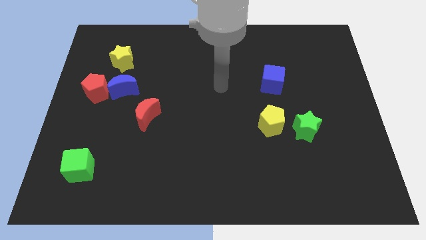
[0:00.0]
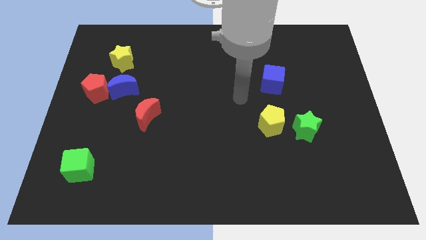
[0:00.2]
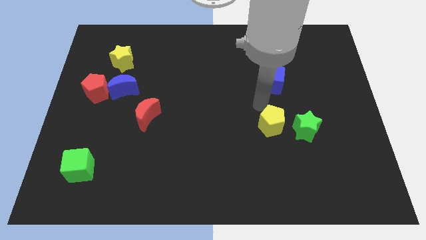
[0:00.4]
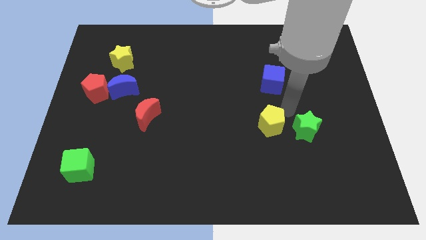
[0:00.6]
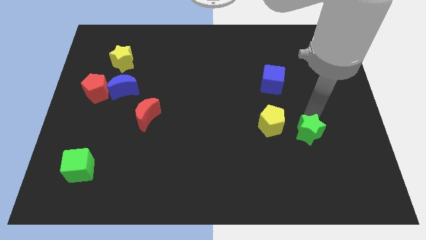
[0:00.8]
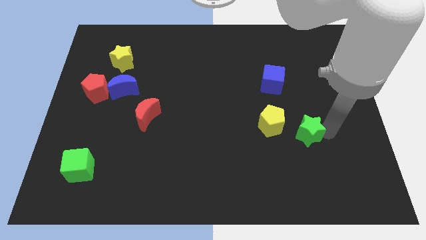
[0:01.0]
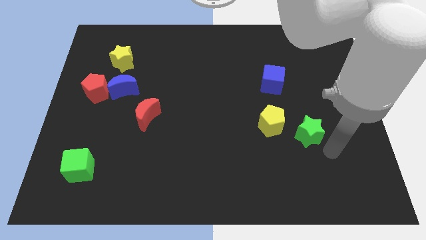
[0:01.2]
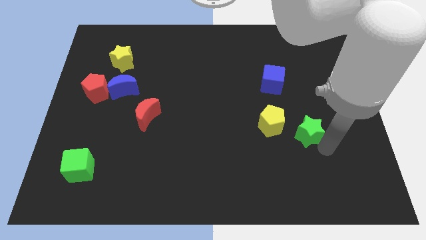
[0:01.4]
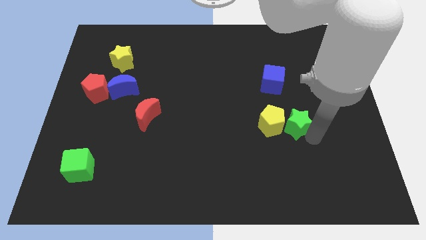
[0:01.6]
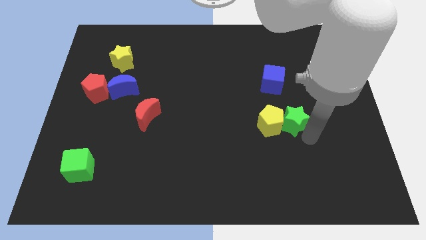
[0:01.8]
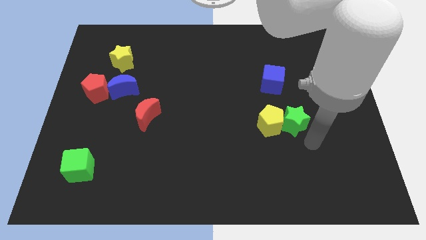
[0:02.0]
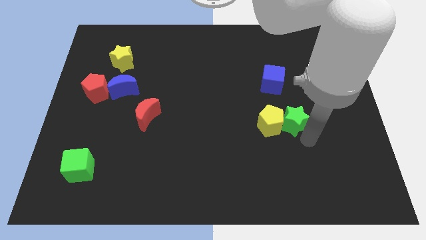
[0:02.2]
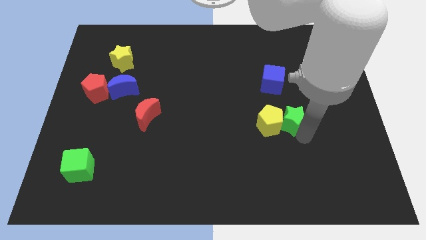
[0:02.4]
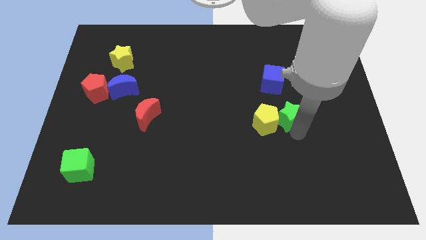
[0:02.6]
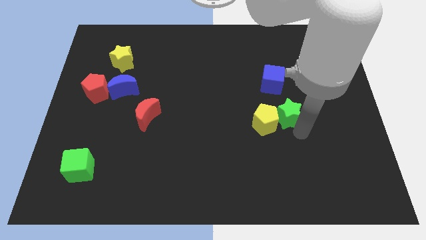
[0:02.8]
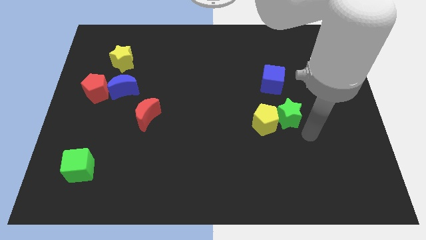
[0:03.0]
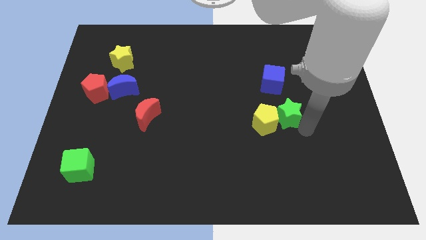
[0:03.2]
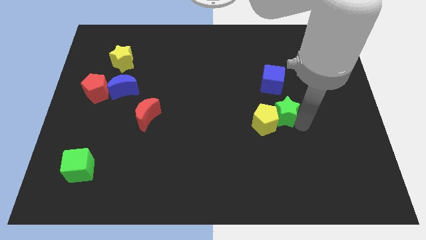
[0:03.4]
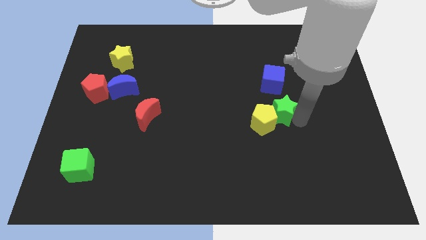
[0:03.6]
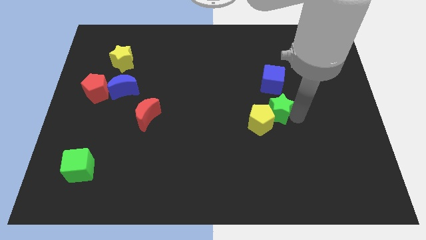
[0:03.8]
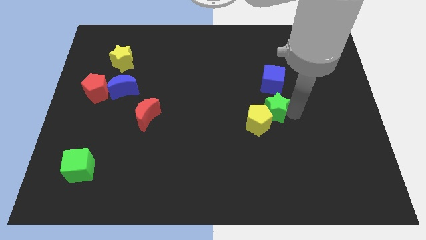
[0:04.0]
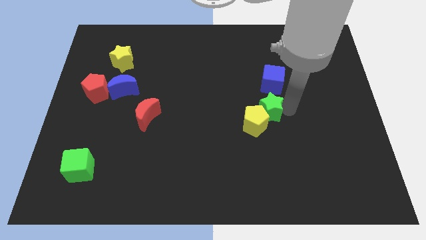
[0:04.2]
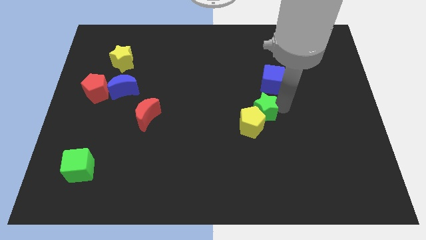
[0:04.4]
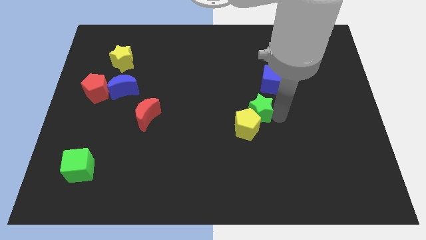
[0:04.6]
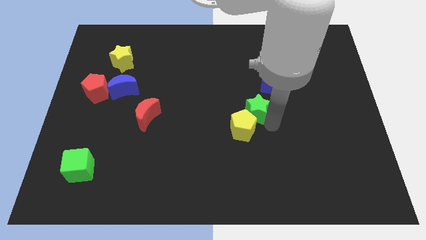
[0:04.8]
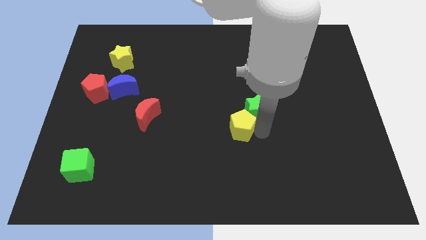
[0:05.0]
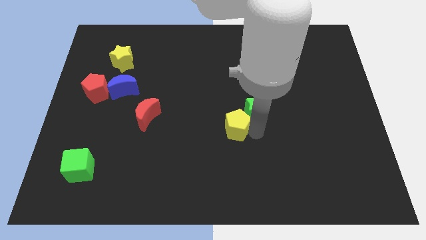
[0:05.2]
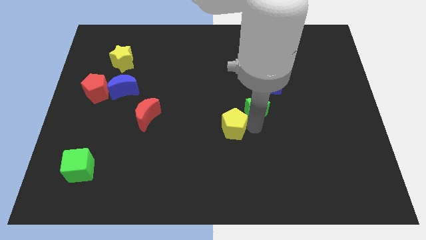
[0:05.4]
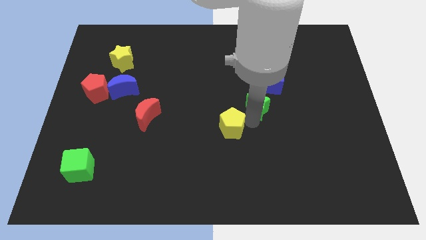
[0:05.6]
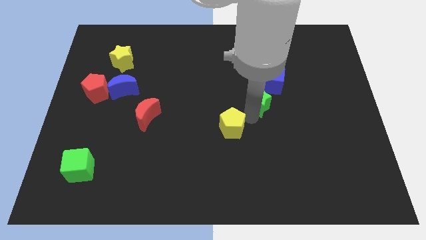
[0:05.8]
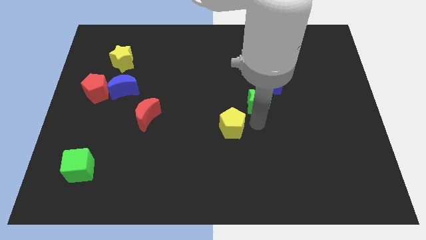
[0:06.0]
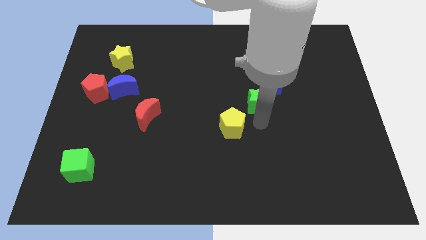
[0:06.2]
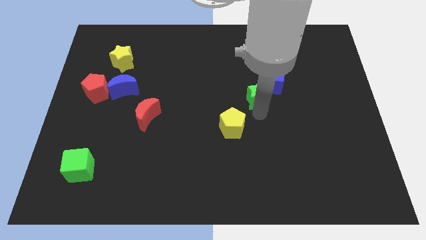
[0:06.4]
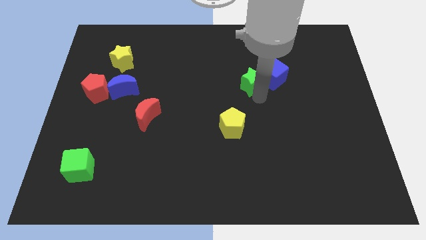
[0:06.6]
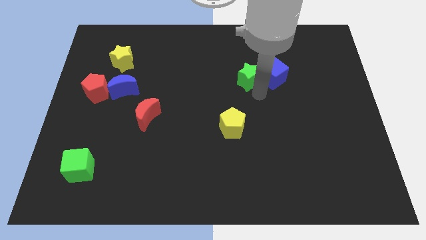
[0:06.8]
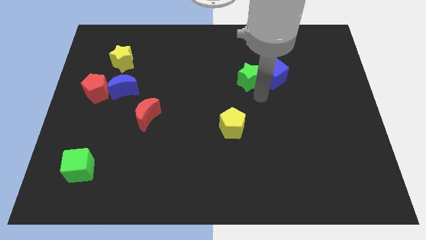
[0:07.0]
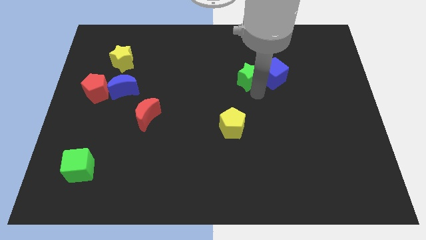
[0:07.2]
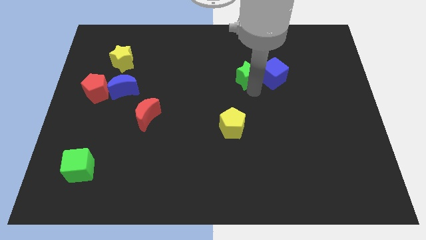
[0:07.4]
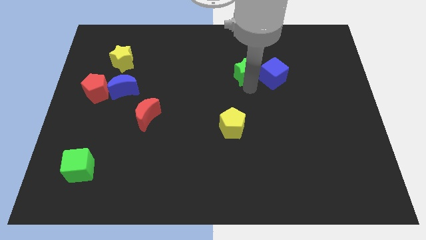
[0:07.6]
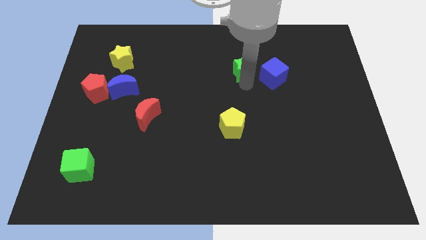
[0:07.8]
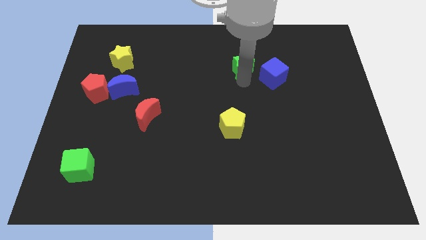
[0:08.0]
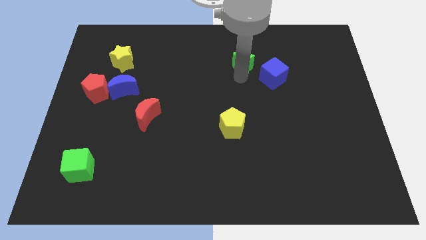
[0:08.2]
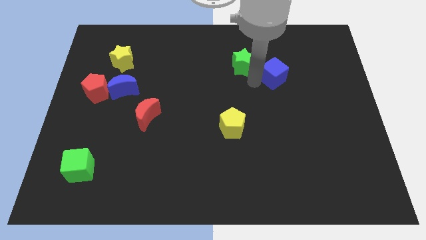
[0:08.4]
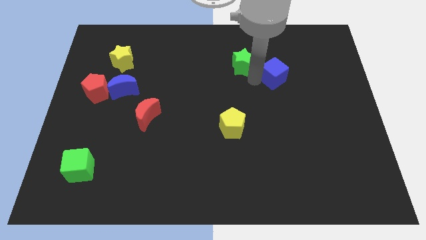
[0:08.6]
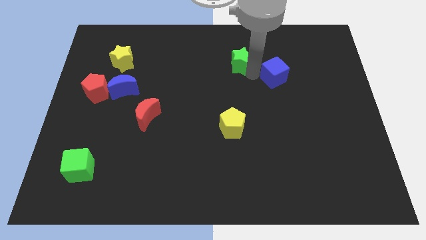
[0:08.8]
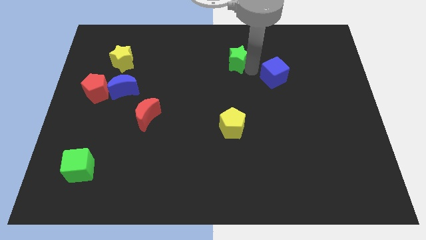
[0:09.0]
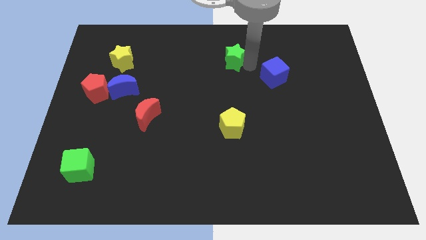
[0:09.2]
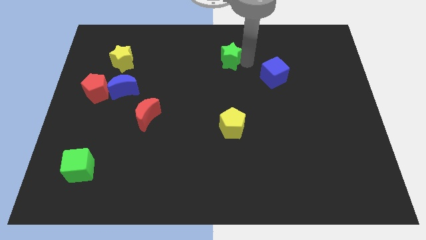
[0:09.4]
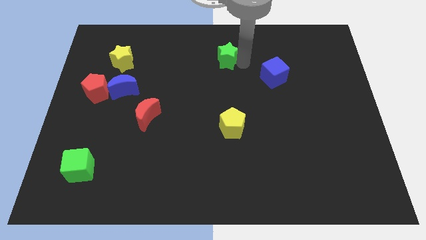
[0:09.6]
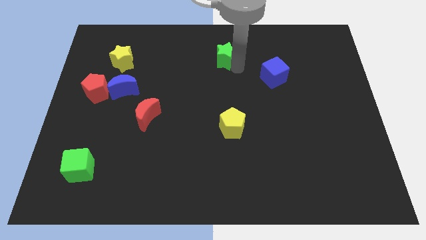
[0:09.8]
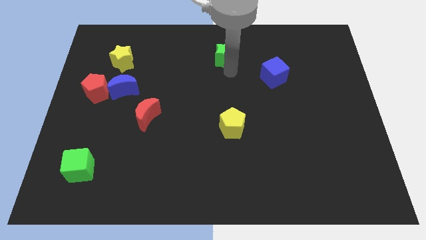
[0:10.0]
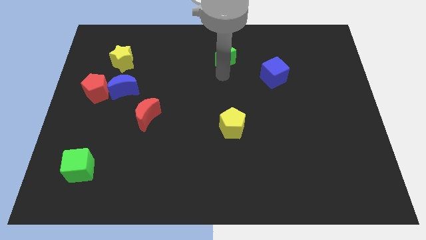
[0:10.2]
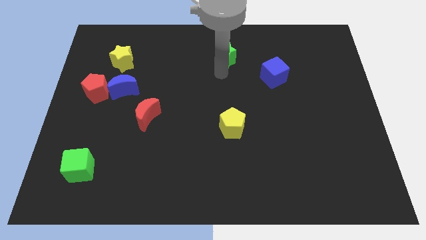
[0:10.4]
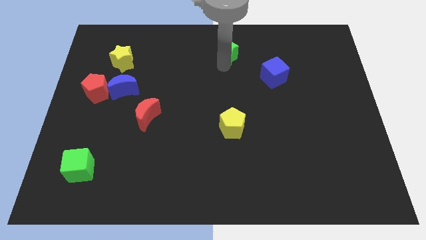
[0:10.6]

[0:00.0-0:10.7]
slide the green star to the top side

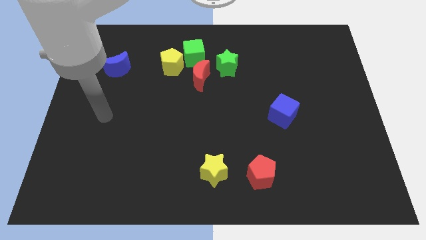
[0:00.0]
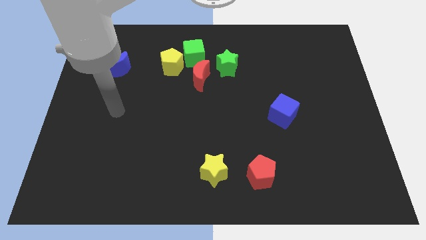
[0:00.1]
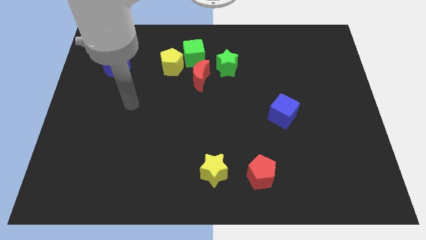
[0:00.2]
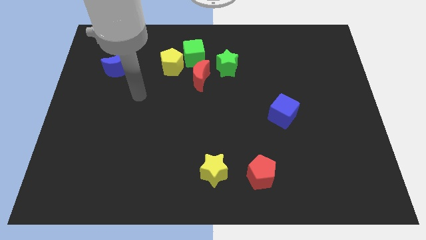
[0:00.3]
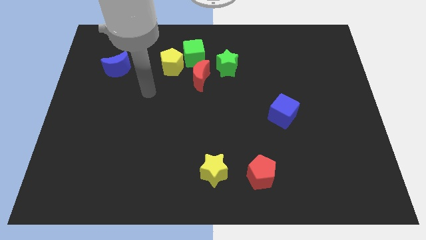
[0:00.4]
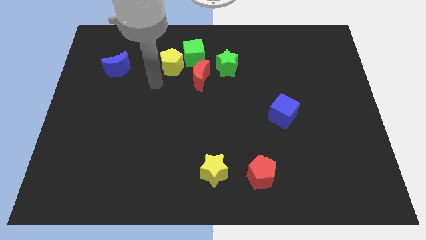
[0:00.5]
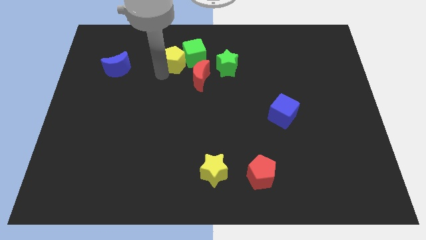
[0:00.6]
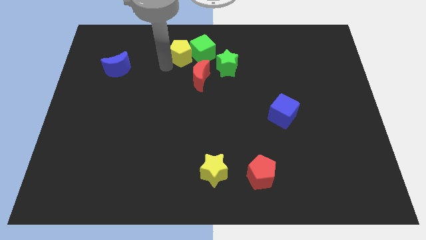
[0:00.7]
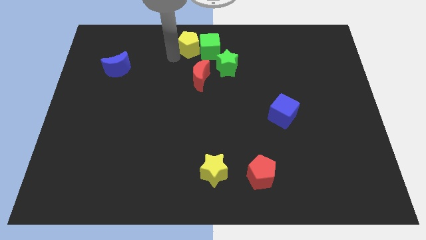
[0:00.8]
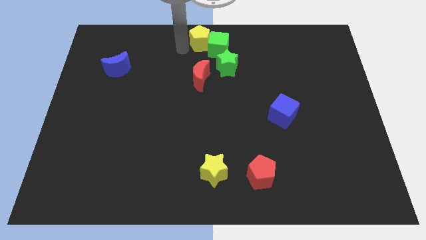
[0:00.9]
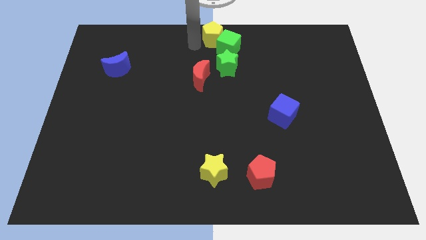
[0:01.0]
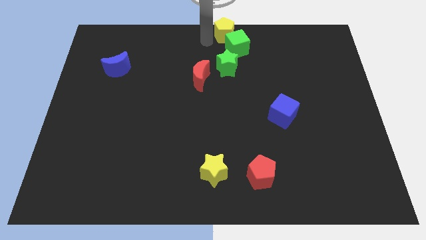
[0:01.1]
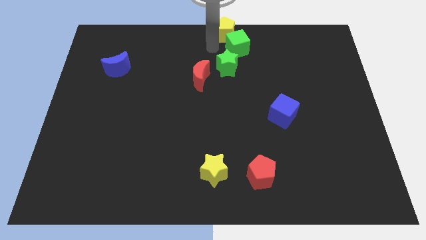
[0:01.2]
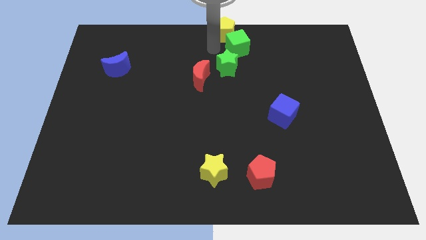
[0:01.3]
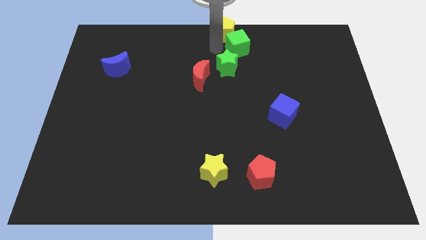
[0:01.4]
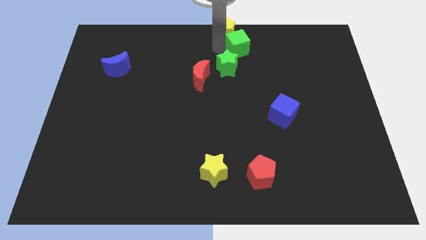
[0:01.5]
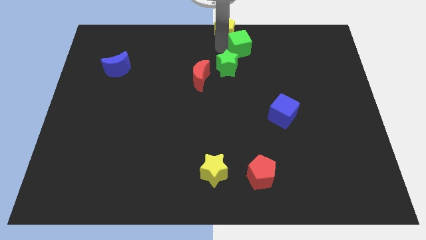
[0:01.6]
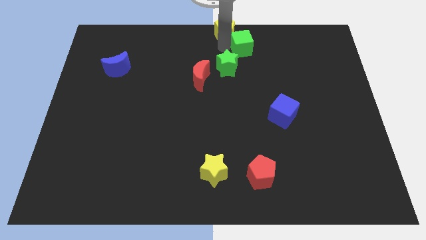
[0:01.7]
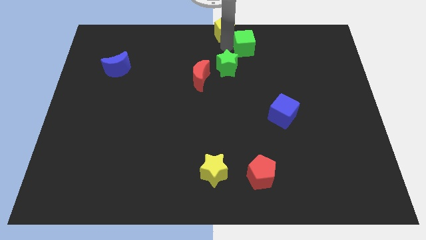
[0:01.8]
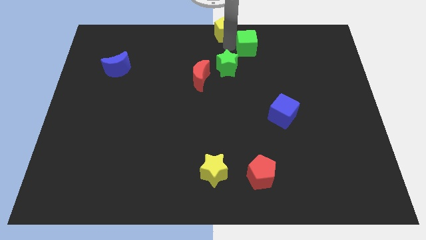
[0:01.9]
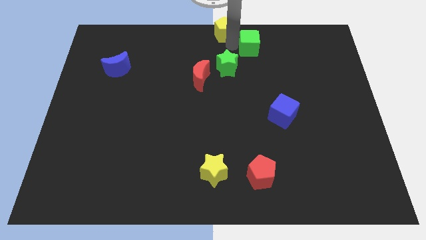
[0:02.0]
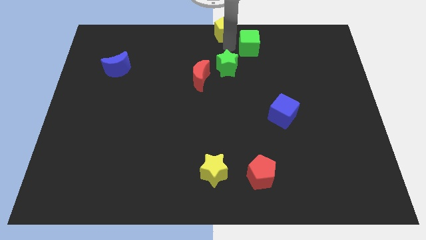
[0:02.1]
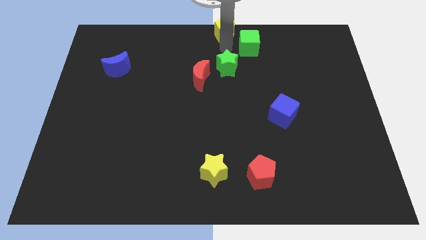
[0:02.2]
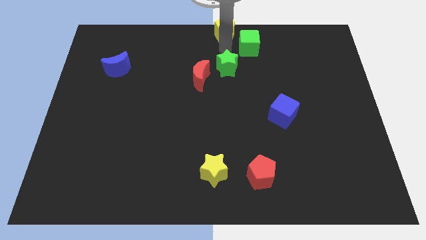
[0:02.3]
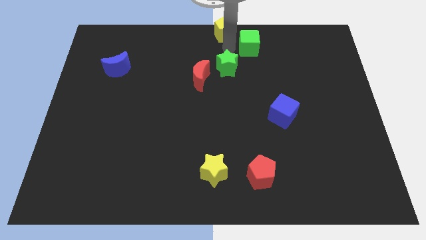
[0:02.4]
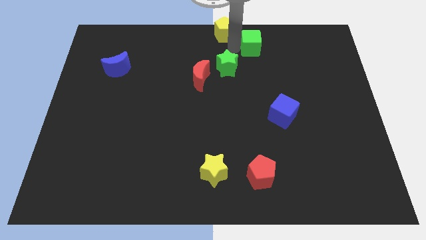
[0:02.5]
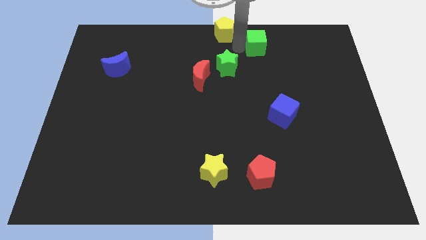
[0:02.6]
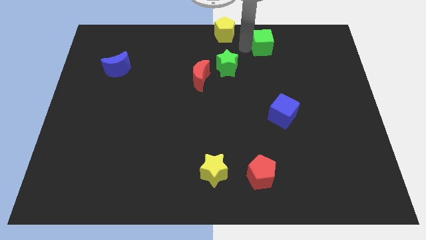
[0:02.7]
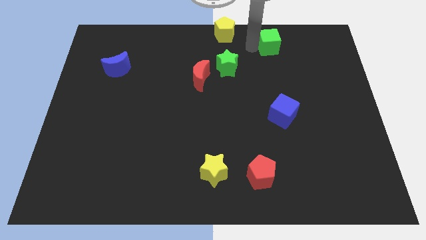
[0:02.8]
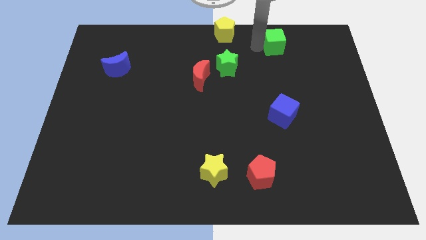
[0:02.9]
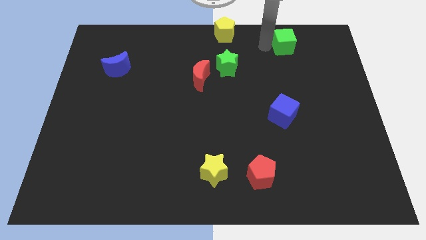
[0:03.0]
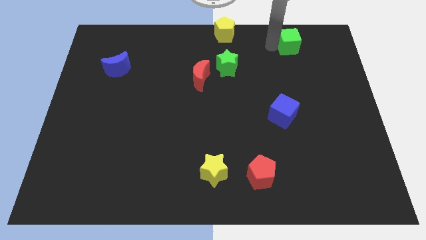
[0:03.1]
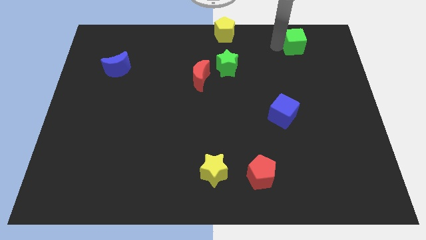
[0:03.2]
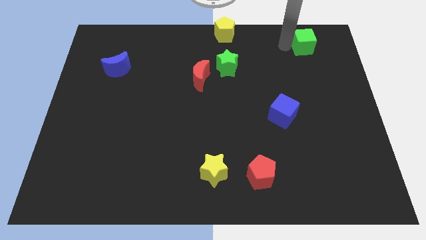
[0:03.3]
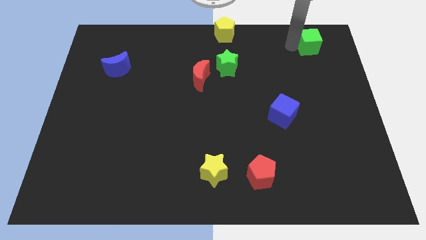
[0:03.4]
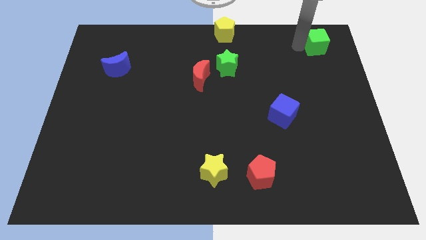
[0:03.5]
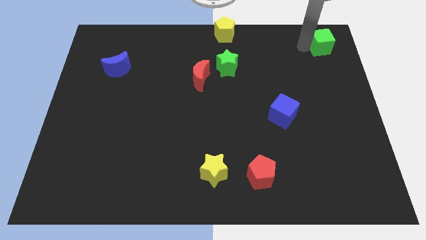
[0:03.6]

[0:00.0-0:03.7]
slide the green cube to the top right of the board
